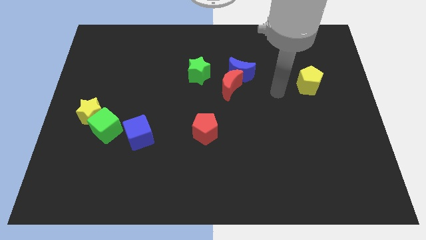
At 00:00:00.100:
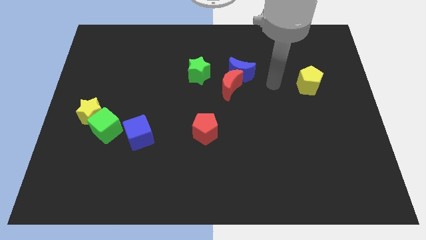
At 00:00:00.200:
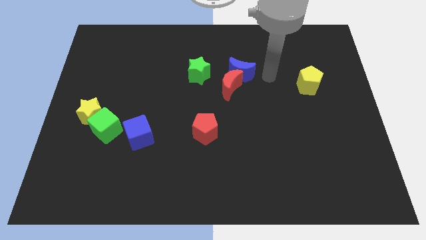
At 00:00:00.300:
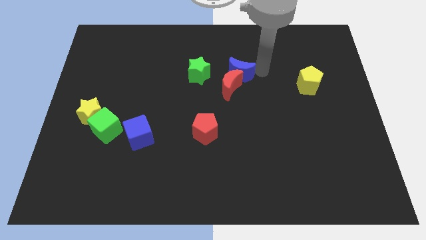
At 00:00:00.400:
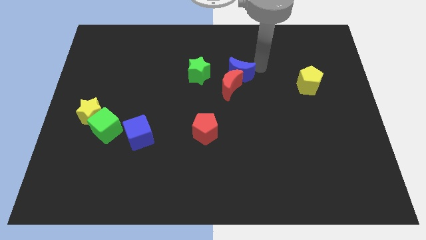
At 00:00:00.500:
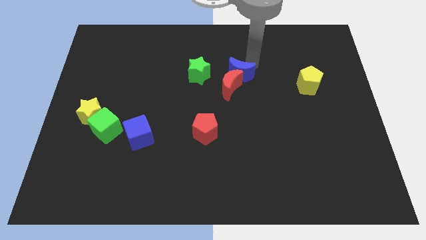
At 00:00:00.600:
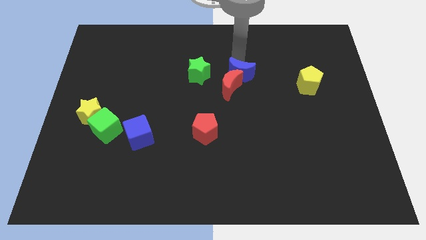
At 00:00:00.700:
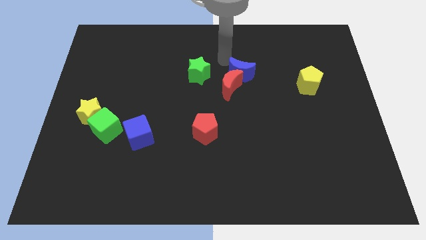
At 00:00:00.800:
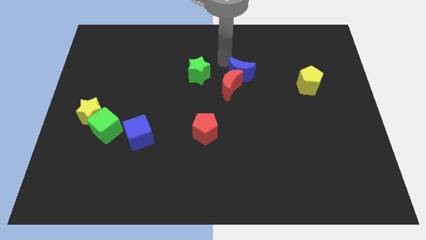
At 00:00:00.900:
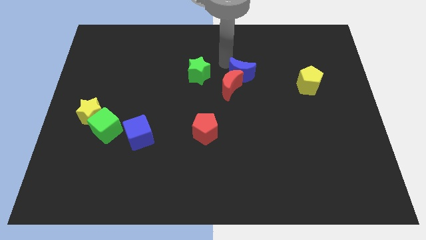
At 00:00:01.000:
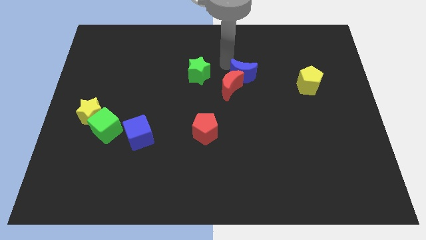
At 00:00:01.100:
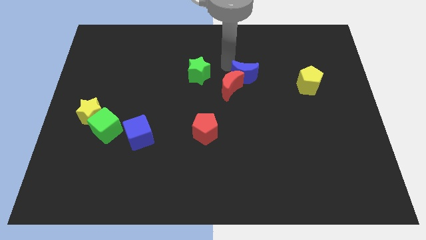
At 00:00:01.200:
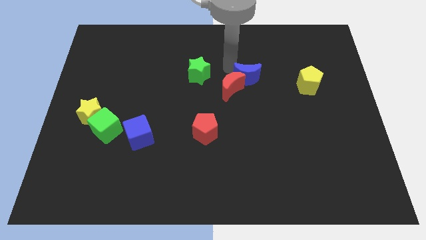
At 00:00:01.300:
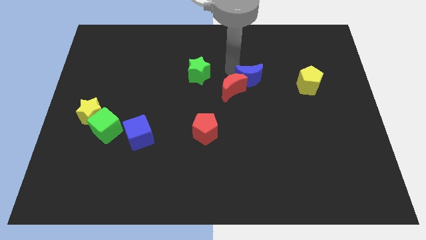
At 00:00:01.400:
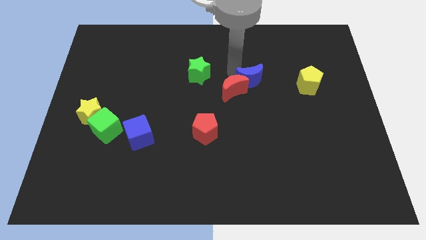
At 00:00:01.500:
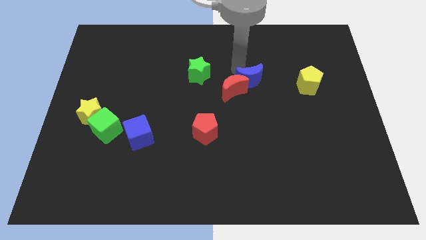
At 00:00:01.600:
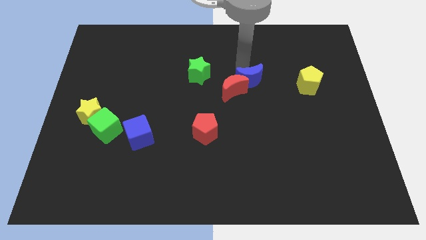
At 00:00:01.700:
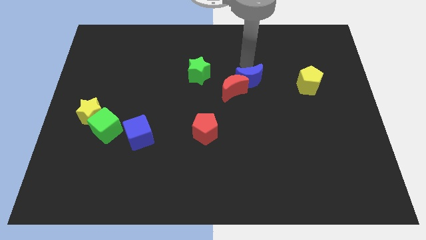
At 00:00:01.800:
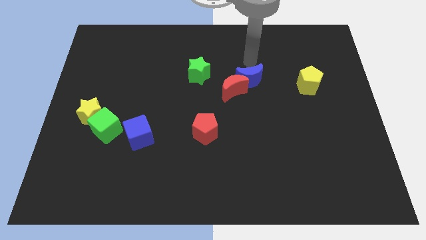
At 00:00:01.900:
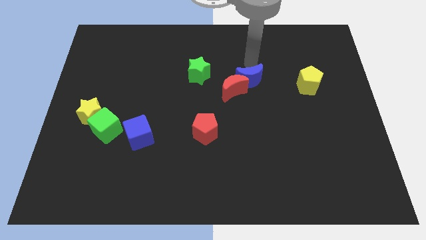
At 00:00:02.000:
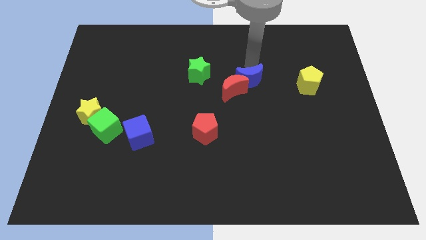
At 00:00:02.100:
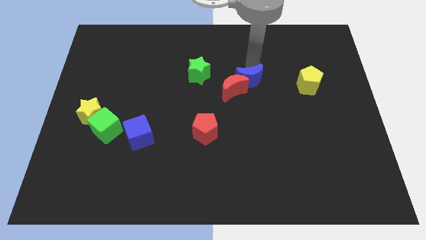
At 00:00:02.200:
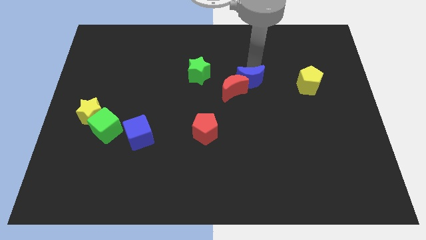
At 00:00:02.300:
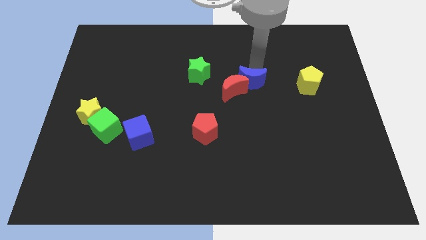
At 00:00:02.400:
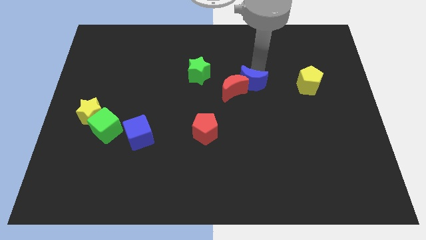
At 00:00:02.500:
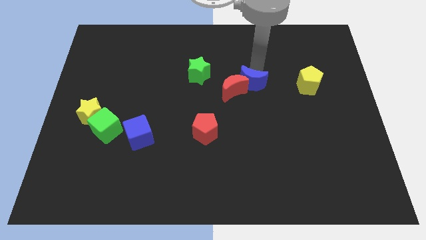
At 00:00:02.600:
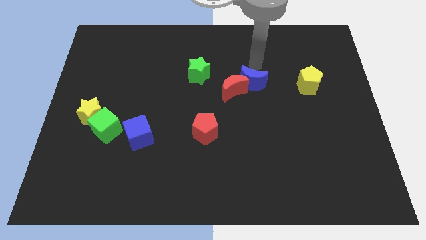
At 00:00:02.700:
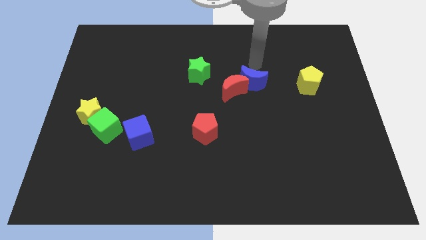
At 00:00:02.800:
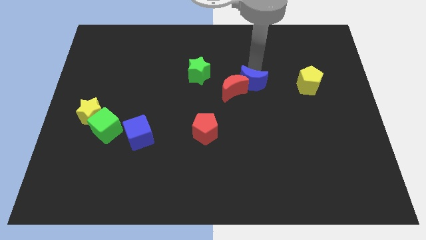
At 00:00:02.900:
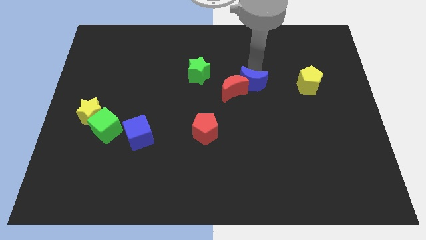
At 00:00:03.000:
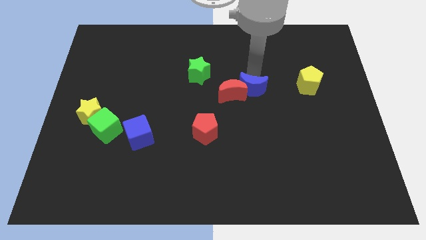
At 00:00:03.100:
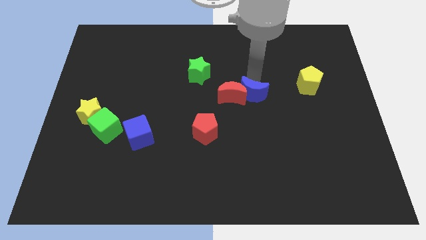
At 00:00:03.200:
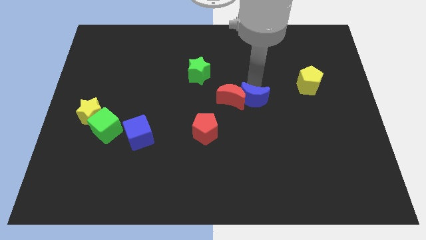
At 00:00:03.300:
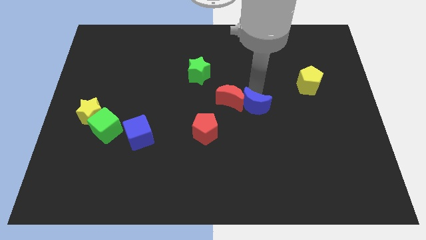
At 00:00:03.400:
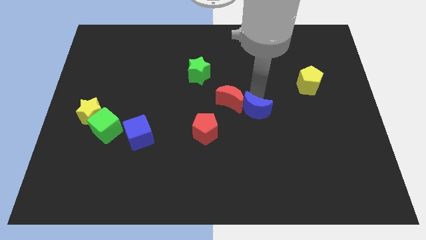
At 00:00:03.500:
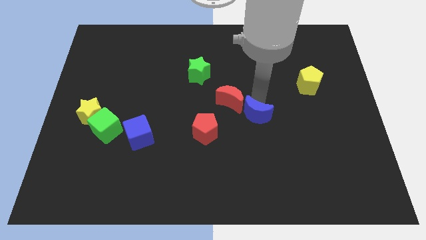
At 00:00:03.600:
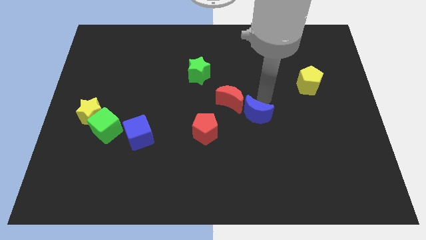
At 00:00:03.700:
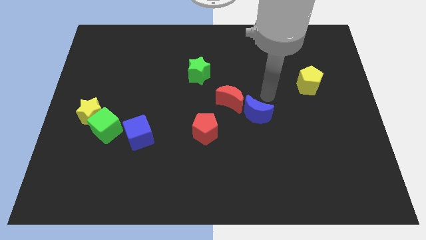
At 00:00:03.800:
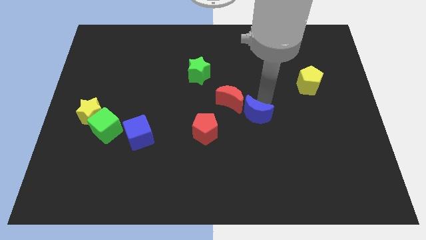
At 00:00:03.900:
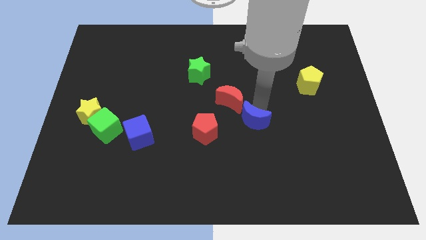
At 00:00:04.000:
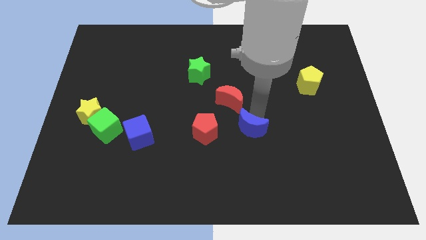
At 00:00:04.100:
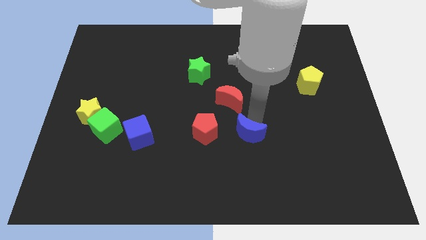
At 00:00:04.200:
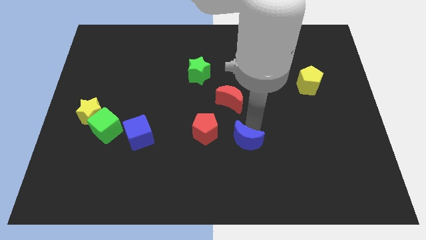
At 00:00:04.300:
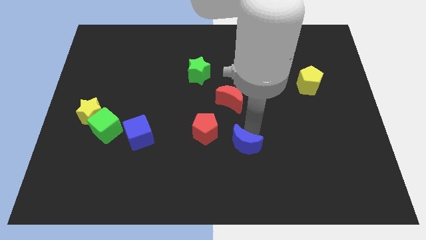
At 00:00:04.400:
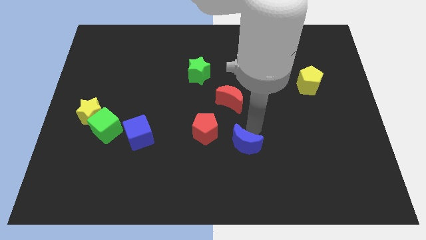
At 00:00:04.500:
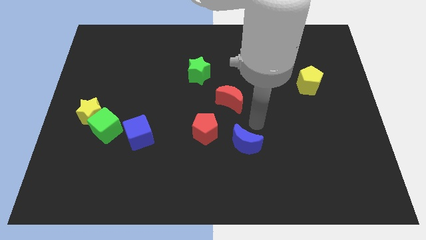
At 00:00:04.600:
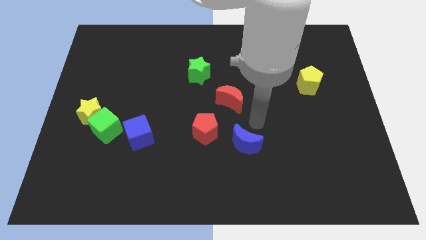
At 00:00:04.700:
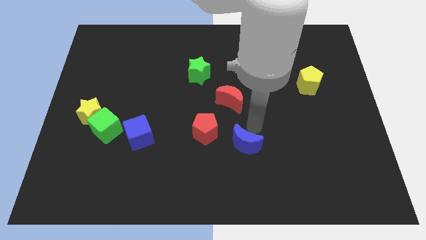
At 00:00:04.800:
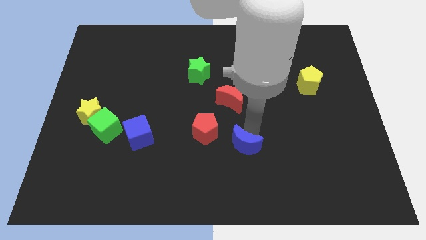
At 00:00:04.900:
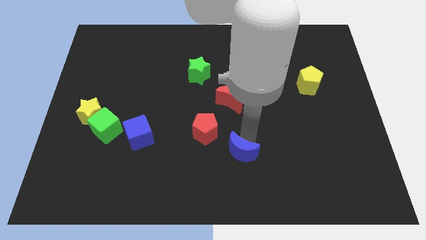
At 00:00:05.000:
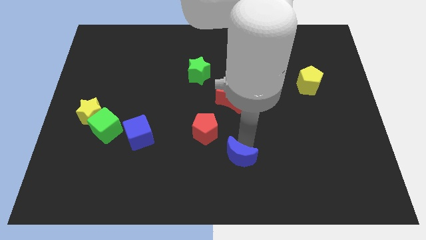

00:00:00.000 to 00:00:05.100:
slide the blue moon to the bottom

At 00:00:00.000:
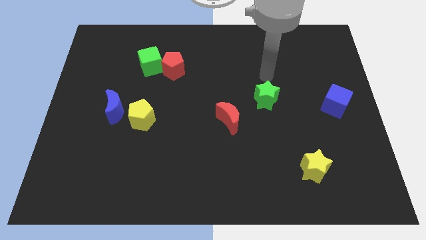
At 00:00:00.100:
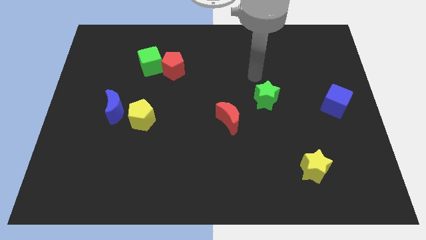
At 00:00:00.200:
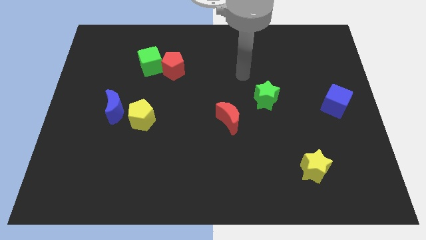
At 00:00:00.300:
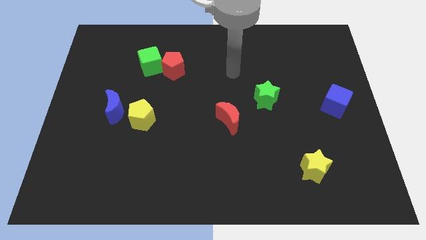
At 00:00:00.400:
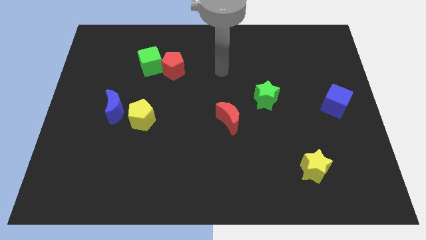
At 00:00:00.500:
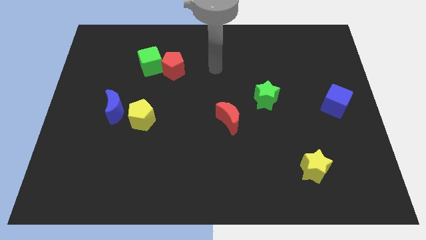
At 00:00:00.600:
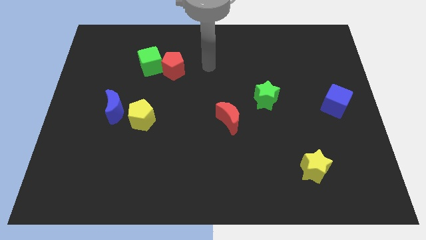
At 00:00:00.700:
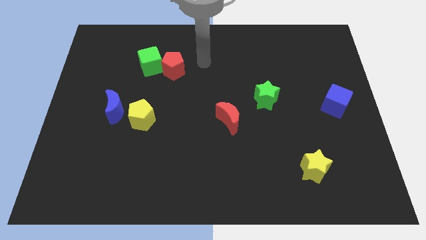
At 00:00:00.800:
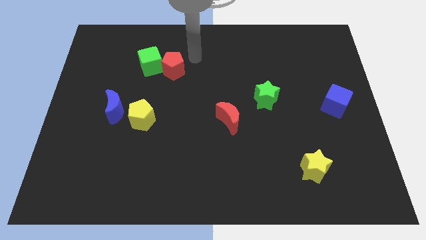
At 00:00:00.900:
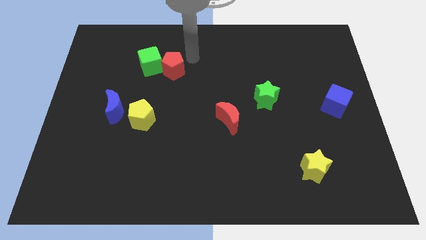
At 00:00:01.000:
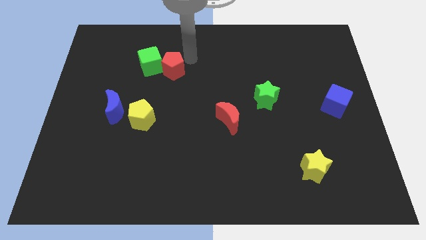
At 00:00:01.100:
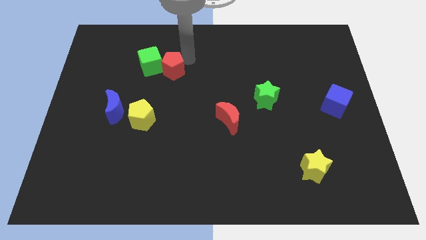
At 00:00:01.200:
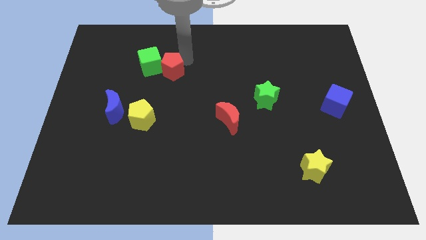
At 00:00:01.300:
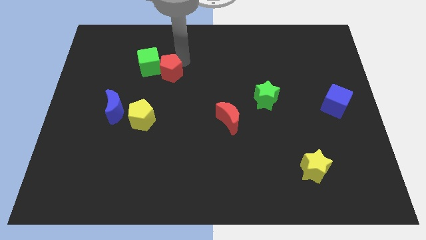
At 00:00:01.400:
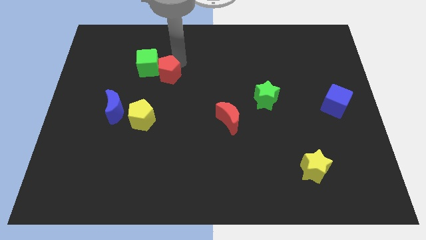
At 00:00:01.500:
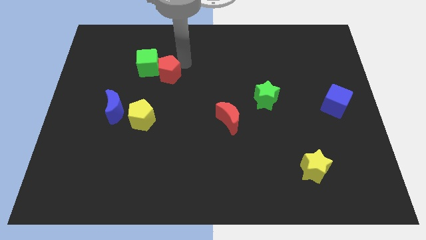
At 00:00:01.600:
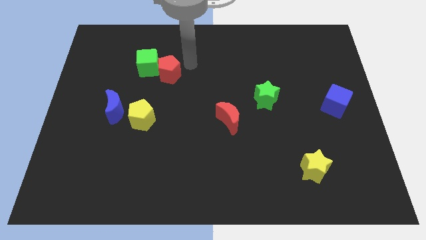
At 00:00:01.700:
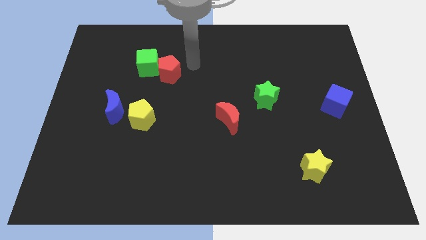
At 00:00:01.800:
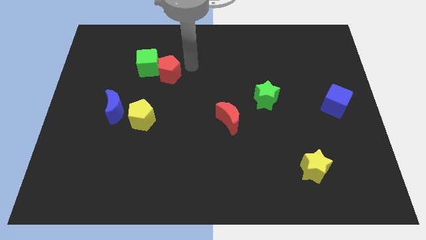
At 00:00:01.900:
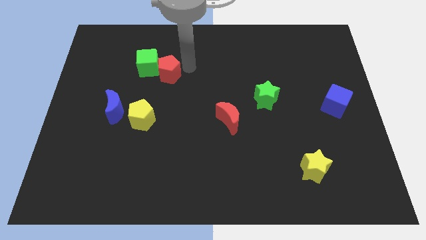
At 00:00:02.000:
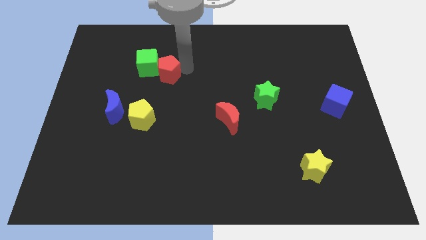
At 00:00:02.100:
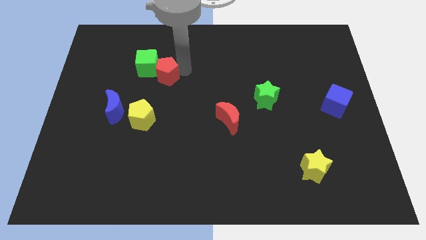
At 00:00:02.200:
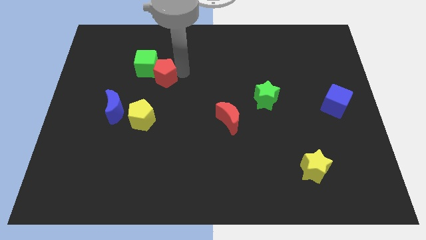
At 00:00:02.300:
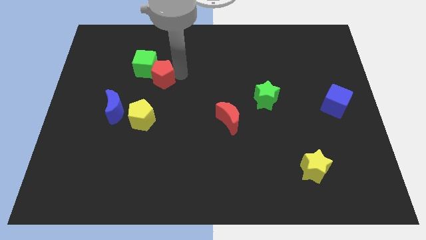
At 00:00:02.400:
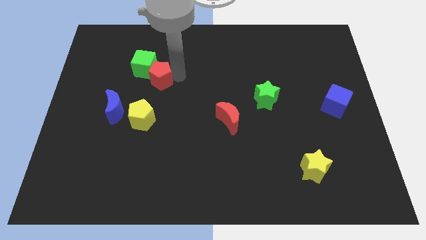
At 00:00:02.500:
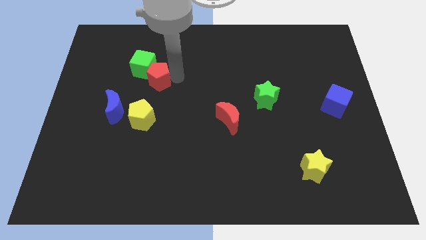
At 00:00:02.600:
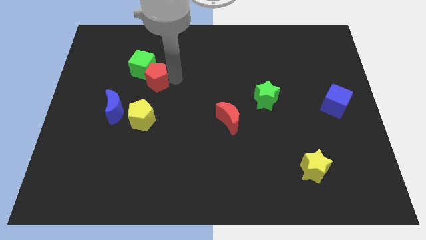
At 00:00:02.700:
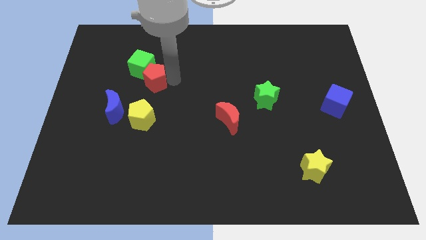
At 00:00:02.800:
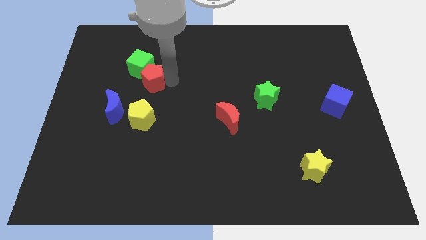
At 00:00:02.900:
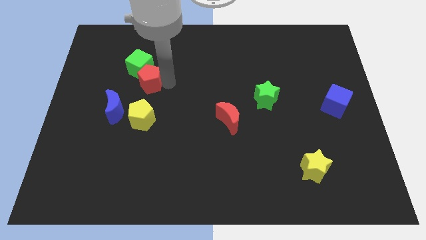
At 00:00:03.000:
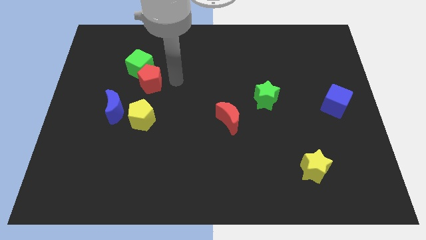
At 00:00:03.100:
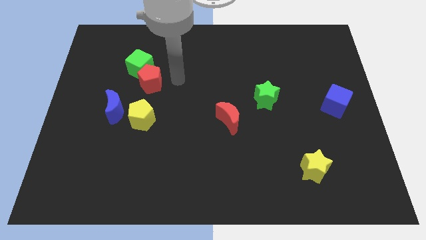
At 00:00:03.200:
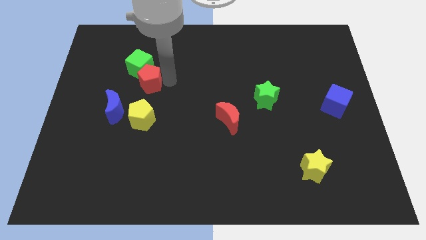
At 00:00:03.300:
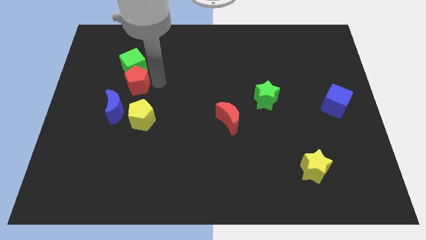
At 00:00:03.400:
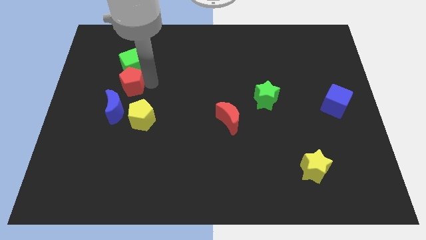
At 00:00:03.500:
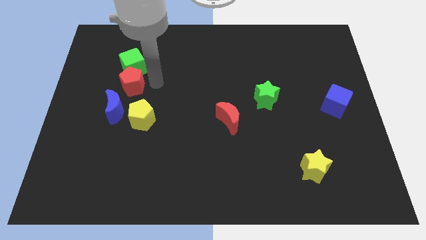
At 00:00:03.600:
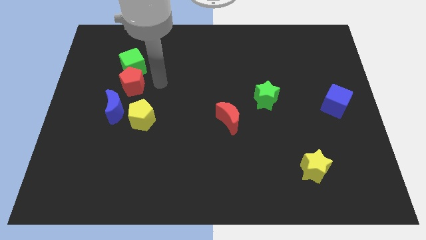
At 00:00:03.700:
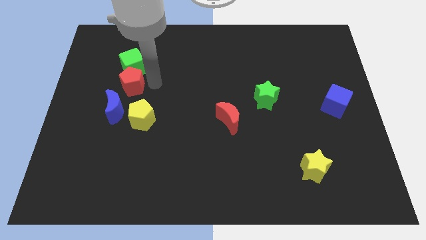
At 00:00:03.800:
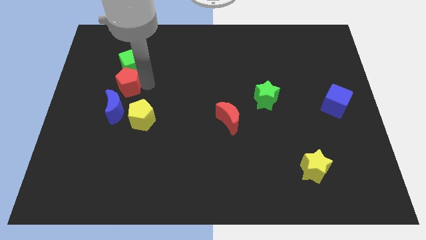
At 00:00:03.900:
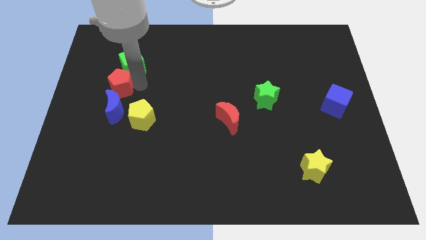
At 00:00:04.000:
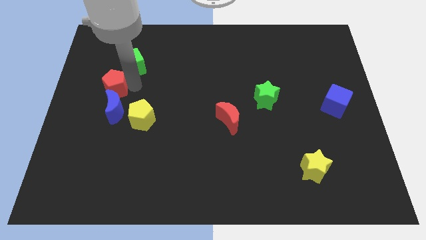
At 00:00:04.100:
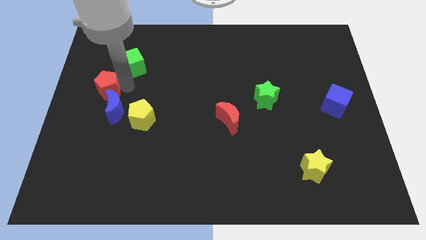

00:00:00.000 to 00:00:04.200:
slide the red pentagon to the left side of the board
